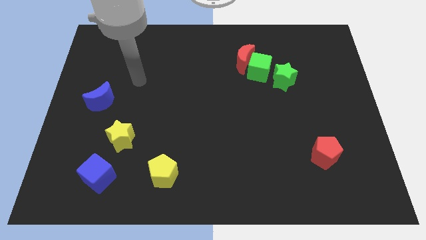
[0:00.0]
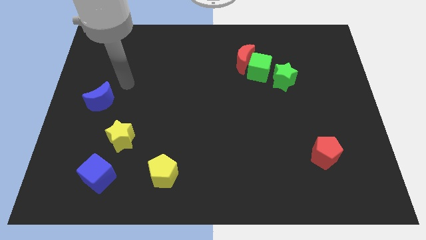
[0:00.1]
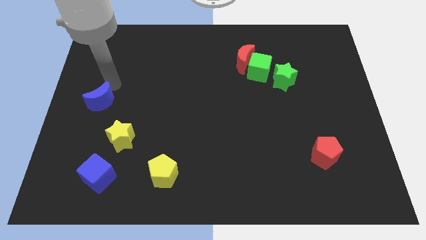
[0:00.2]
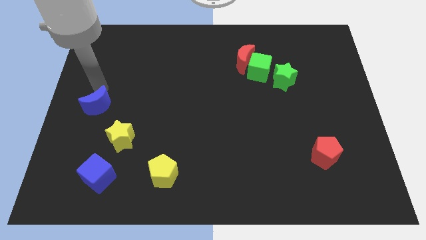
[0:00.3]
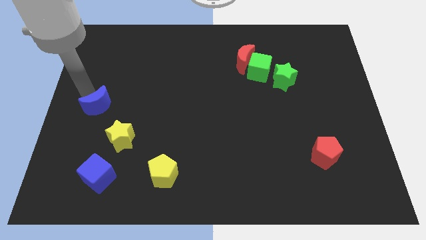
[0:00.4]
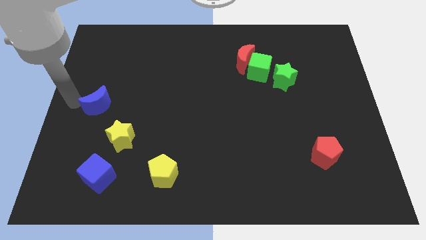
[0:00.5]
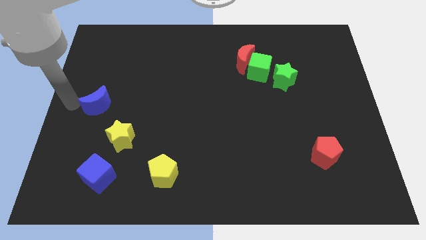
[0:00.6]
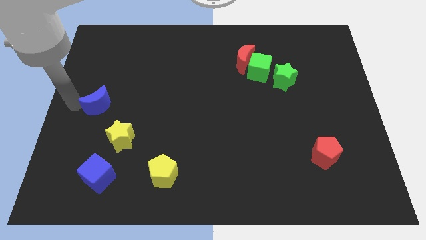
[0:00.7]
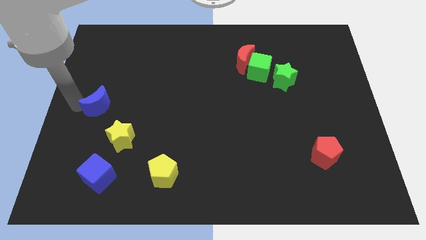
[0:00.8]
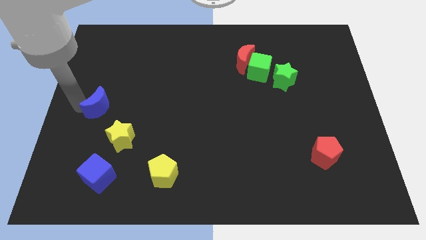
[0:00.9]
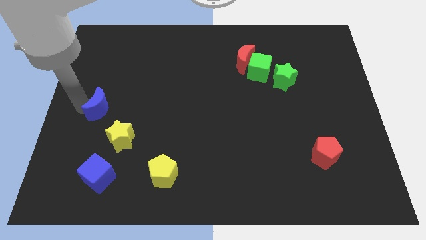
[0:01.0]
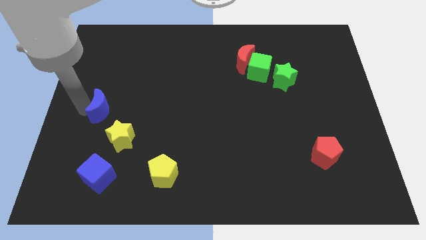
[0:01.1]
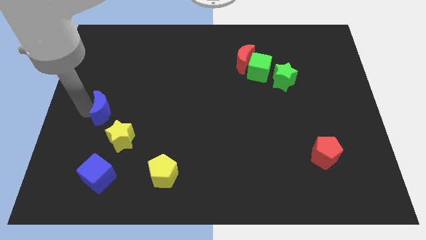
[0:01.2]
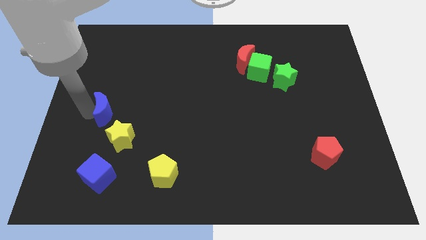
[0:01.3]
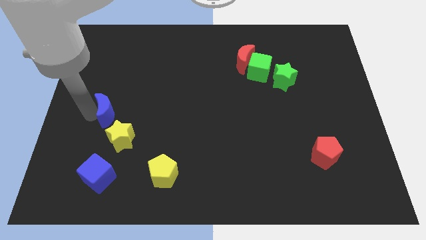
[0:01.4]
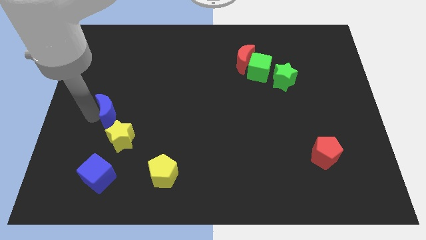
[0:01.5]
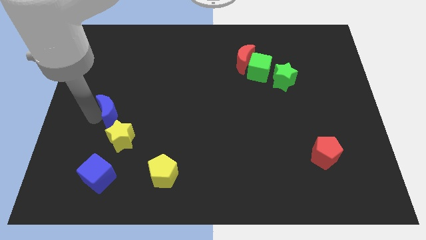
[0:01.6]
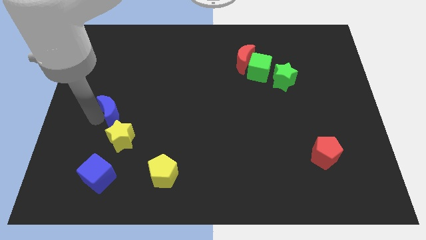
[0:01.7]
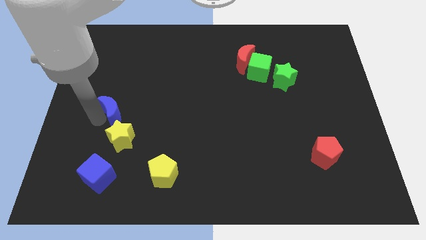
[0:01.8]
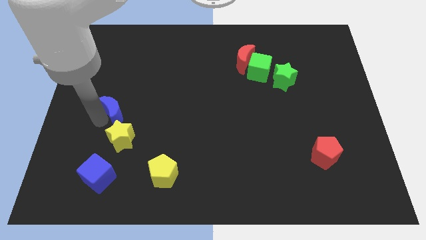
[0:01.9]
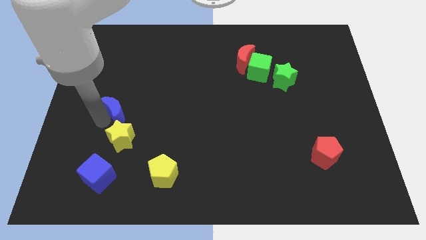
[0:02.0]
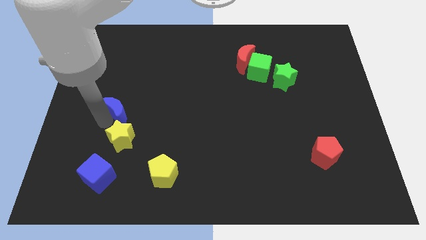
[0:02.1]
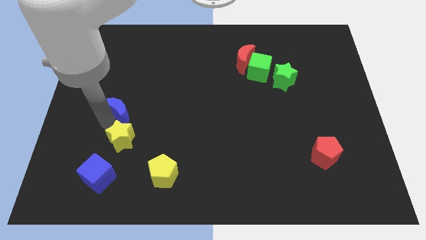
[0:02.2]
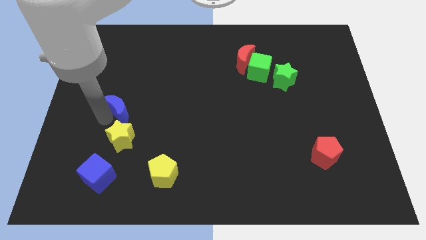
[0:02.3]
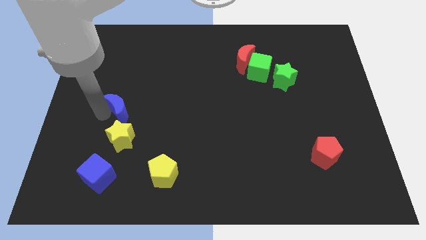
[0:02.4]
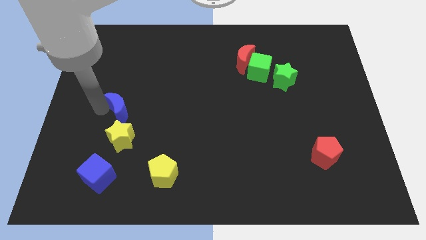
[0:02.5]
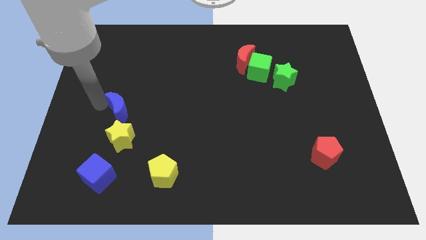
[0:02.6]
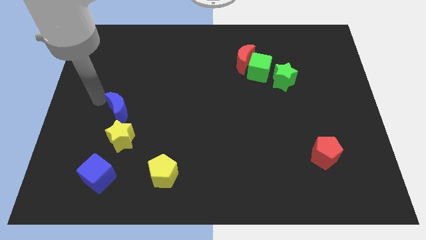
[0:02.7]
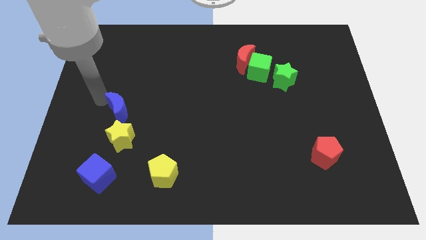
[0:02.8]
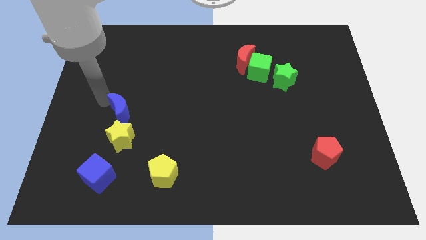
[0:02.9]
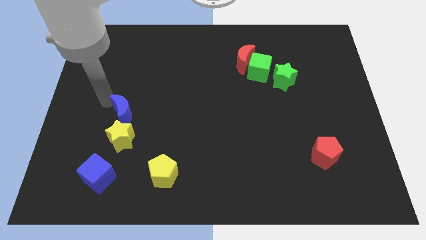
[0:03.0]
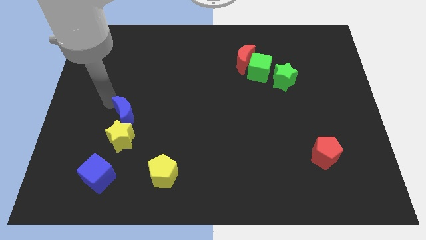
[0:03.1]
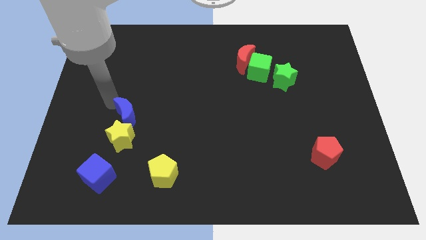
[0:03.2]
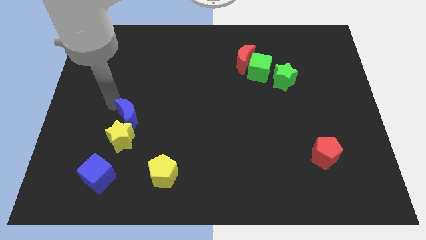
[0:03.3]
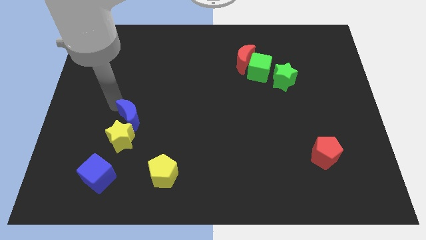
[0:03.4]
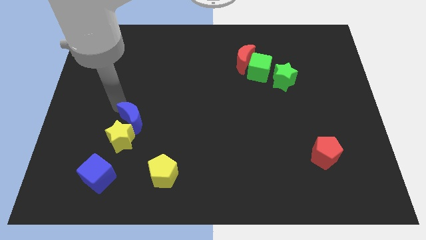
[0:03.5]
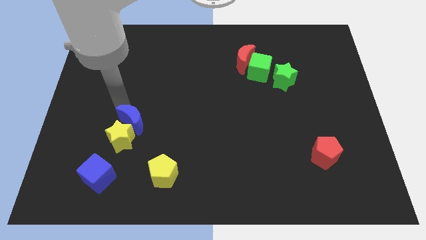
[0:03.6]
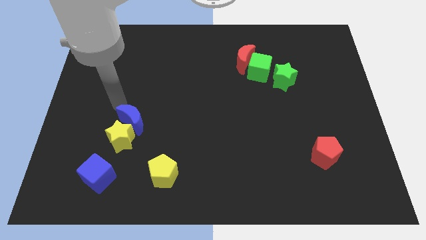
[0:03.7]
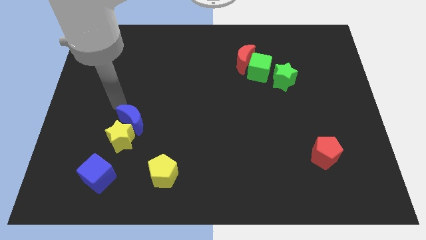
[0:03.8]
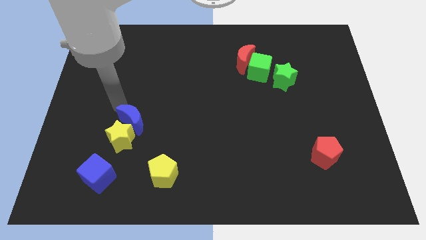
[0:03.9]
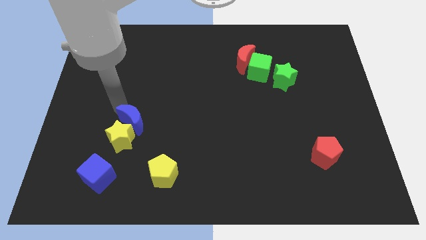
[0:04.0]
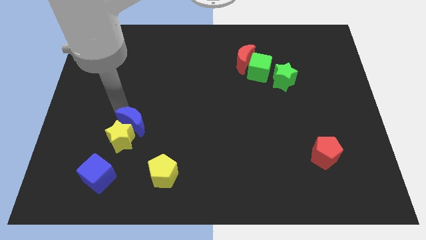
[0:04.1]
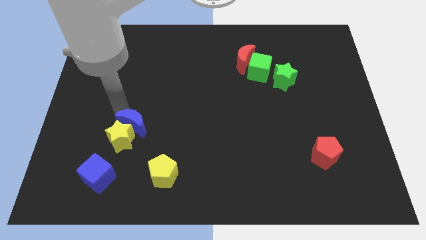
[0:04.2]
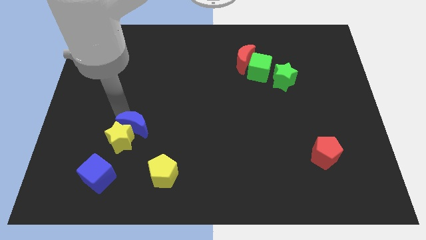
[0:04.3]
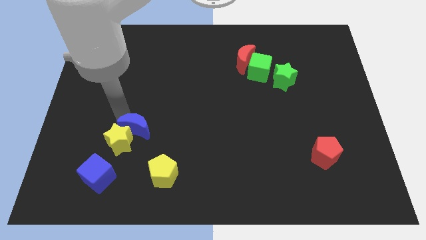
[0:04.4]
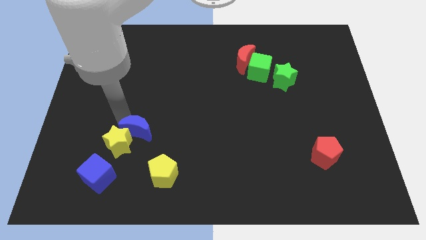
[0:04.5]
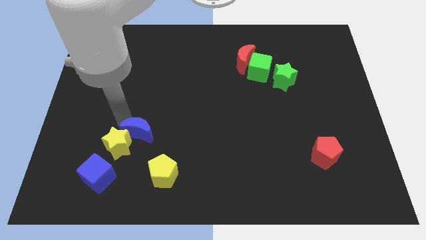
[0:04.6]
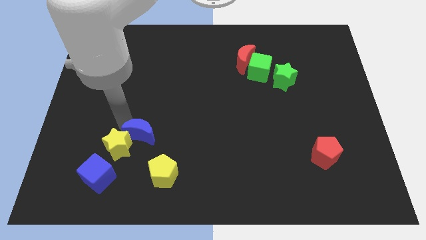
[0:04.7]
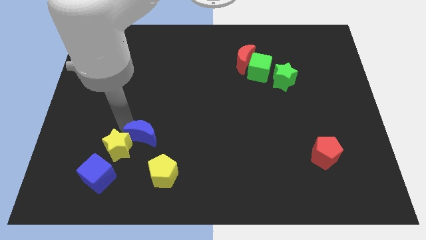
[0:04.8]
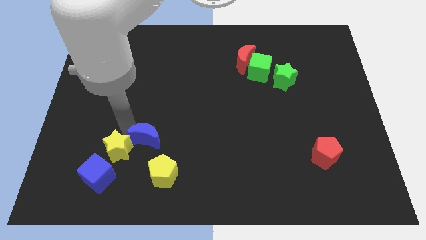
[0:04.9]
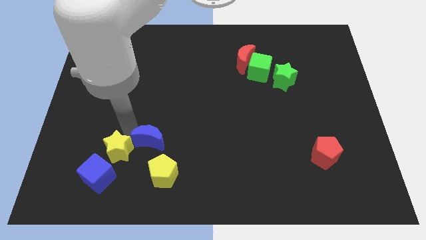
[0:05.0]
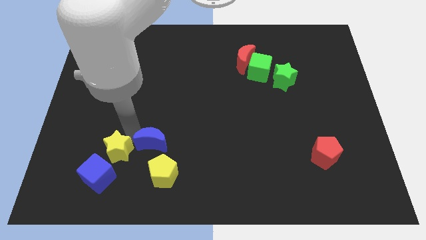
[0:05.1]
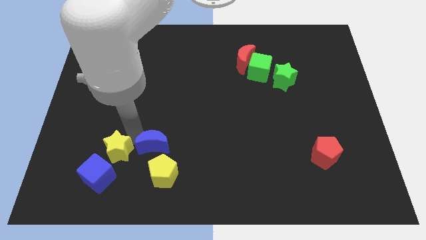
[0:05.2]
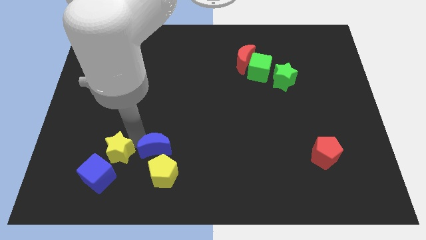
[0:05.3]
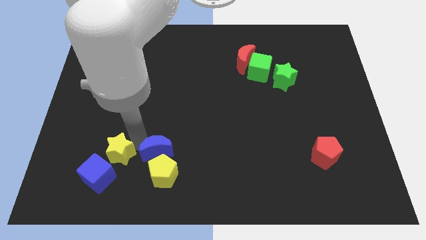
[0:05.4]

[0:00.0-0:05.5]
push the blue moon towards the yellow pentagon
